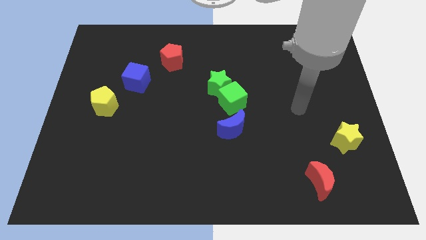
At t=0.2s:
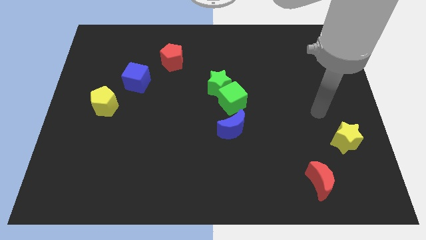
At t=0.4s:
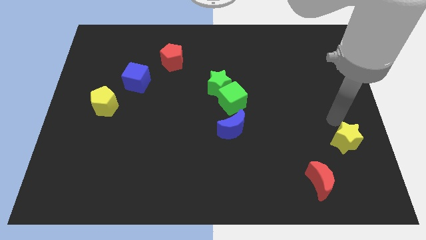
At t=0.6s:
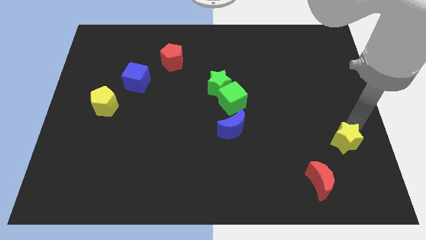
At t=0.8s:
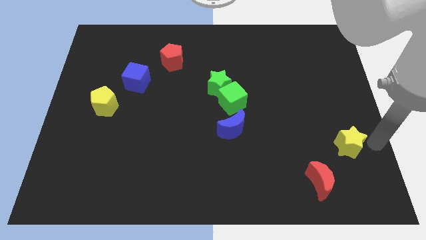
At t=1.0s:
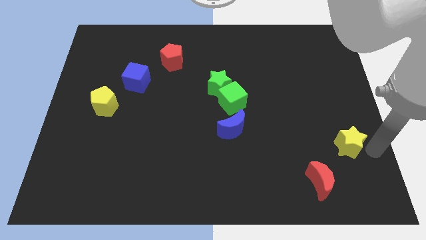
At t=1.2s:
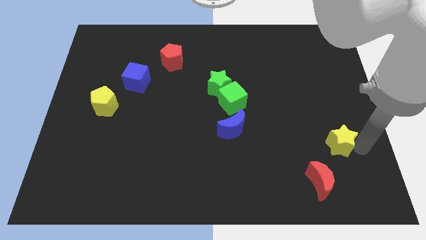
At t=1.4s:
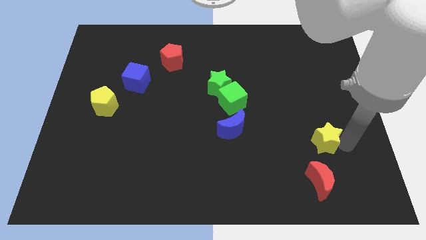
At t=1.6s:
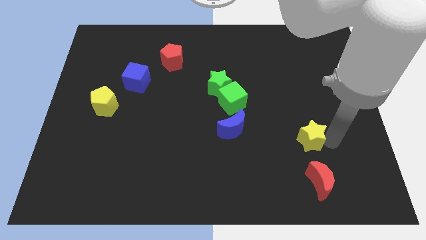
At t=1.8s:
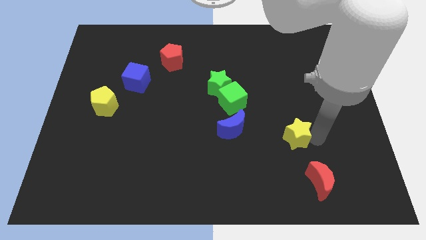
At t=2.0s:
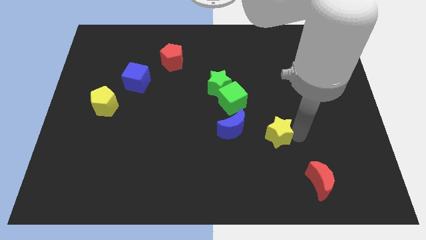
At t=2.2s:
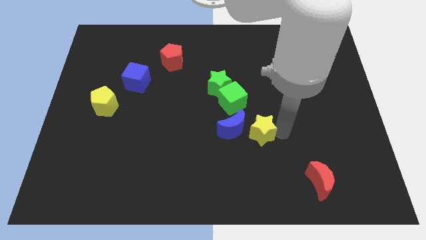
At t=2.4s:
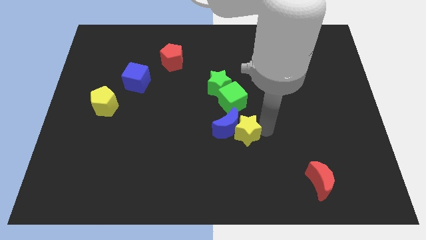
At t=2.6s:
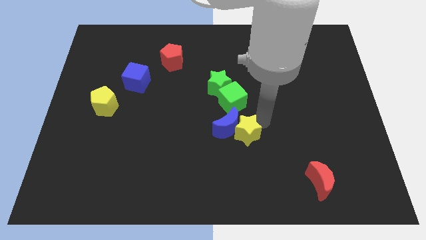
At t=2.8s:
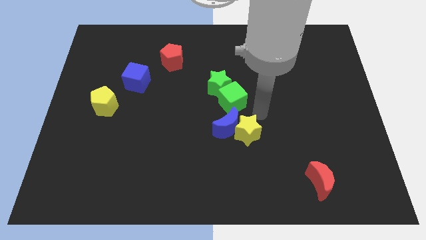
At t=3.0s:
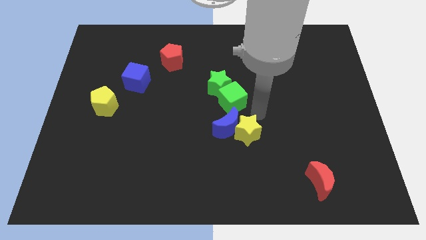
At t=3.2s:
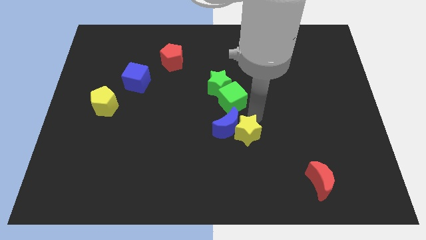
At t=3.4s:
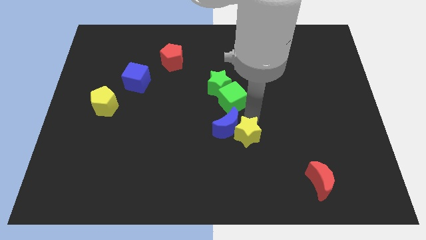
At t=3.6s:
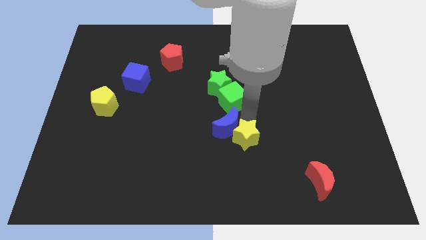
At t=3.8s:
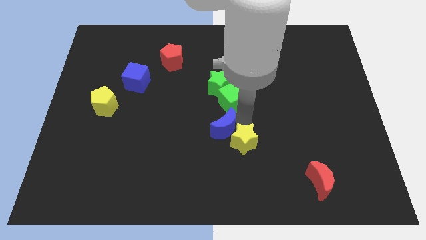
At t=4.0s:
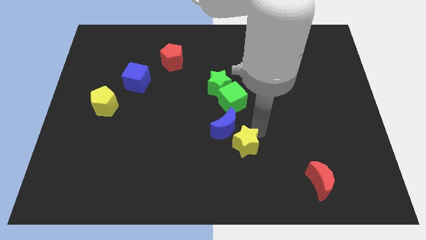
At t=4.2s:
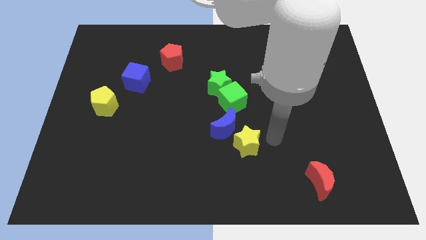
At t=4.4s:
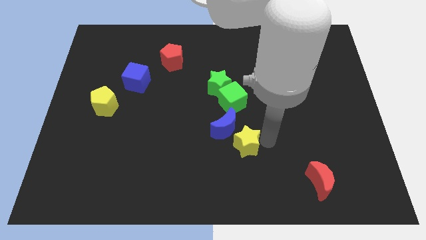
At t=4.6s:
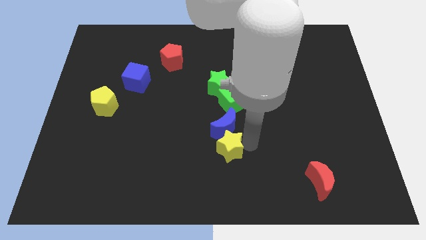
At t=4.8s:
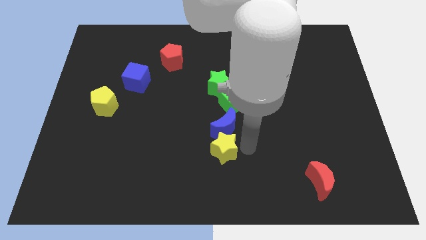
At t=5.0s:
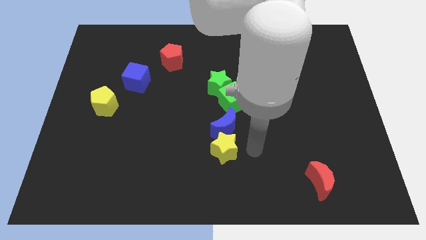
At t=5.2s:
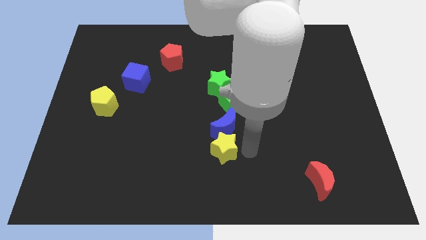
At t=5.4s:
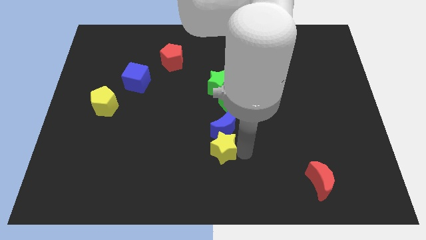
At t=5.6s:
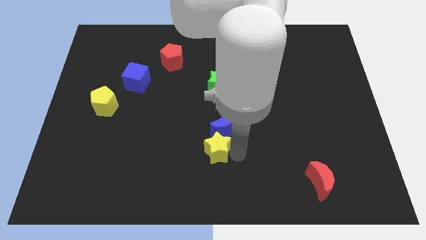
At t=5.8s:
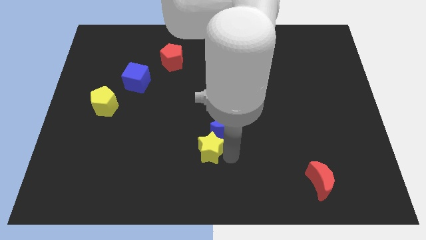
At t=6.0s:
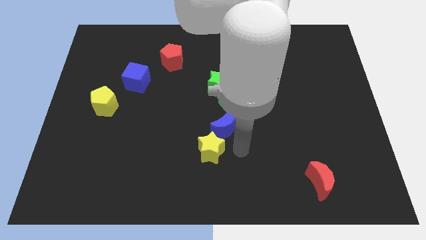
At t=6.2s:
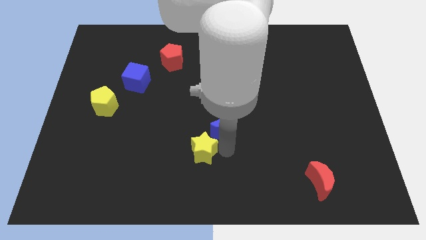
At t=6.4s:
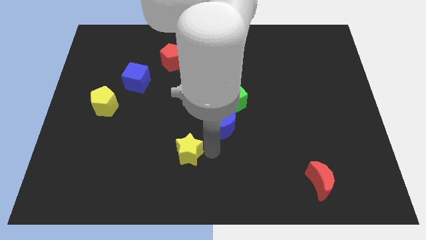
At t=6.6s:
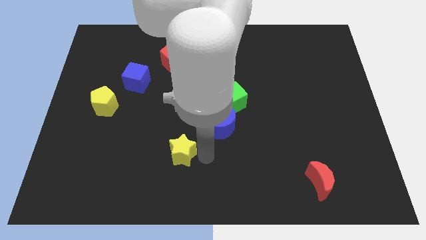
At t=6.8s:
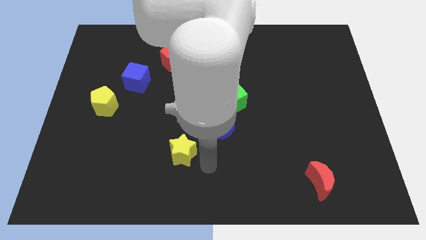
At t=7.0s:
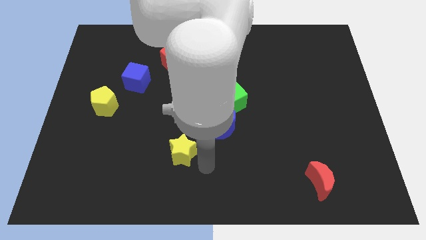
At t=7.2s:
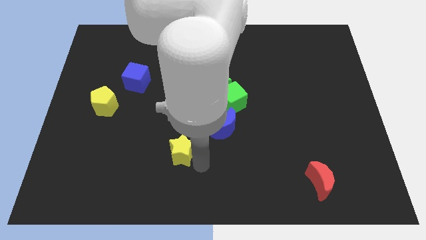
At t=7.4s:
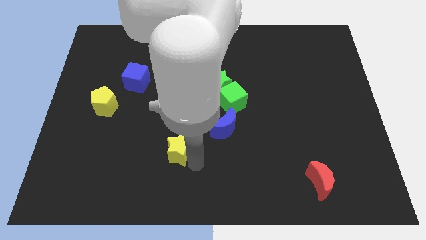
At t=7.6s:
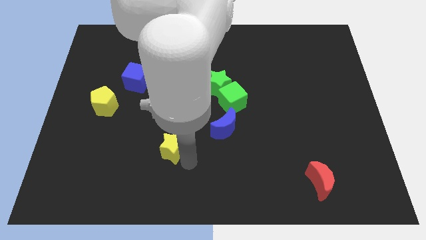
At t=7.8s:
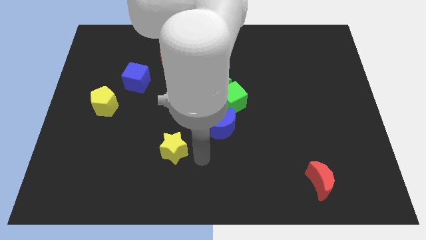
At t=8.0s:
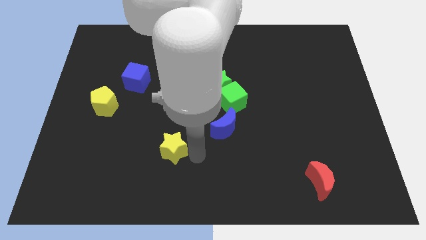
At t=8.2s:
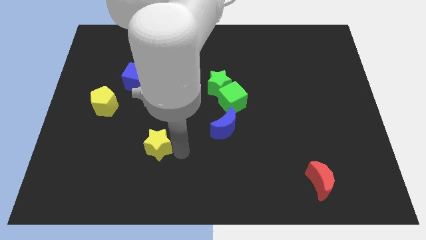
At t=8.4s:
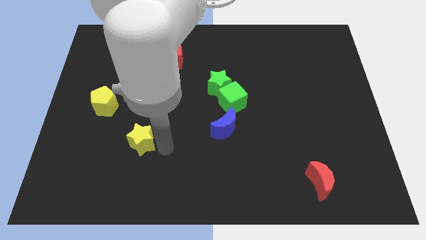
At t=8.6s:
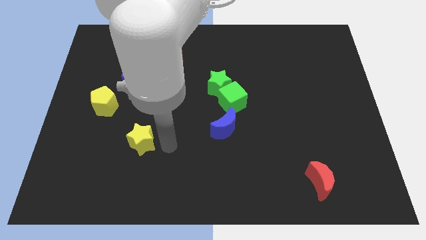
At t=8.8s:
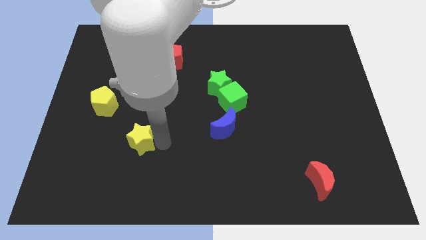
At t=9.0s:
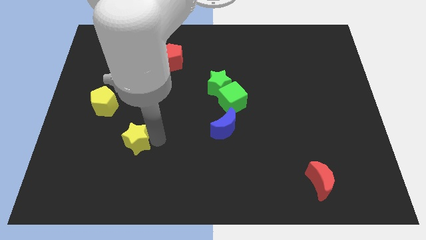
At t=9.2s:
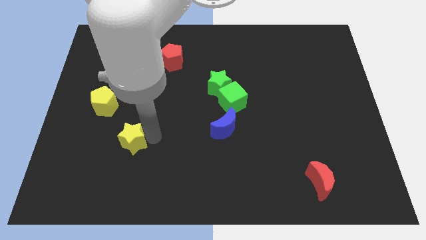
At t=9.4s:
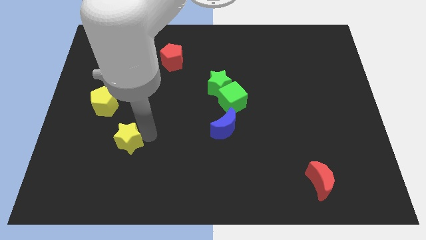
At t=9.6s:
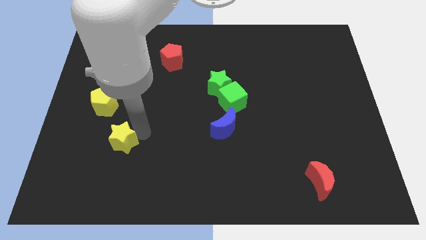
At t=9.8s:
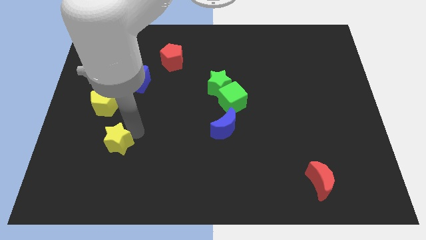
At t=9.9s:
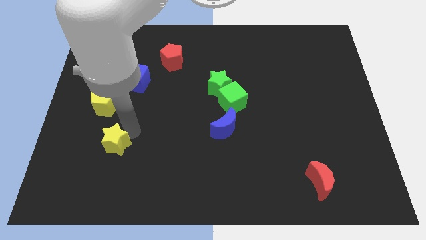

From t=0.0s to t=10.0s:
slide the yellow star to the bottom of the yellow pentagon

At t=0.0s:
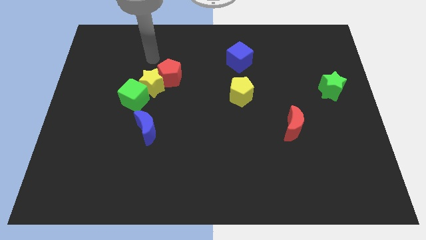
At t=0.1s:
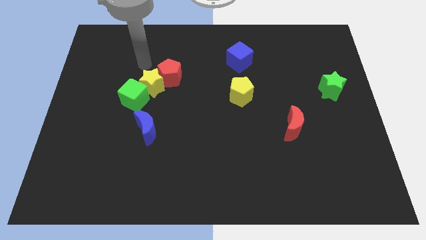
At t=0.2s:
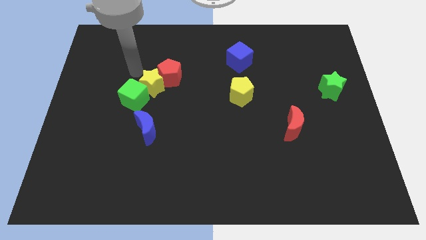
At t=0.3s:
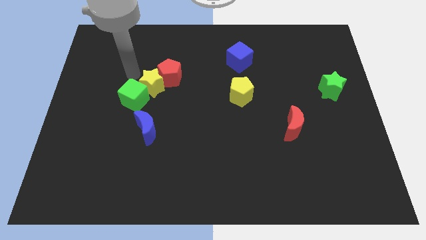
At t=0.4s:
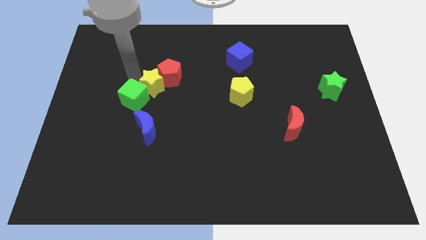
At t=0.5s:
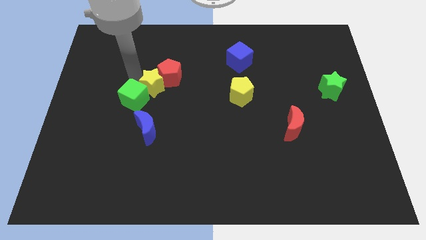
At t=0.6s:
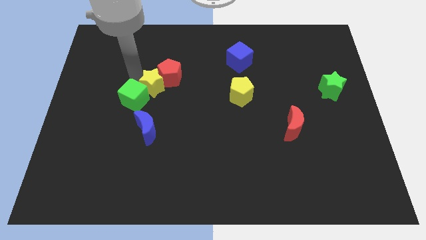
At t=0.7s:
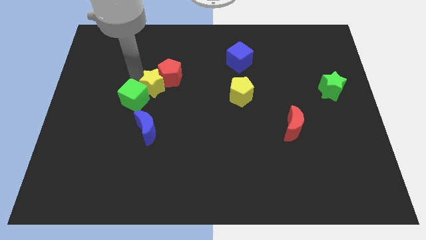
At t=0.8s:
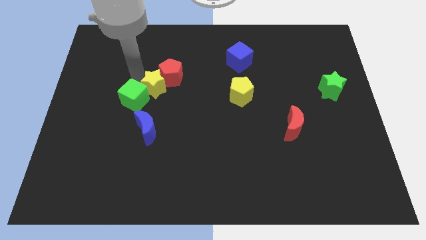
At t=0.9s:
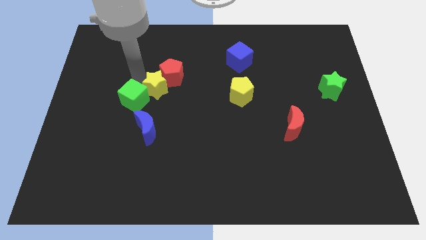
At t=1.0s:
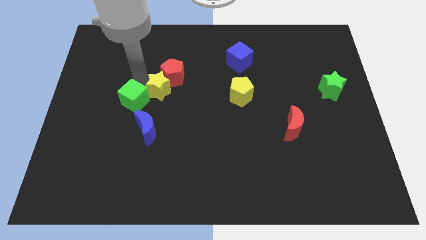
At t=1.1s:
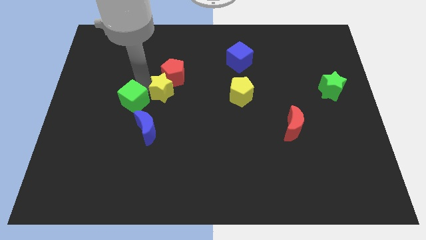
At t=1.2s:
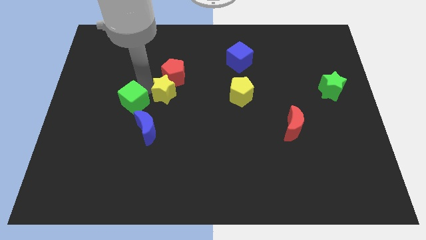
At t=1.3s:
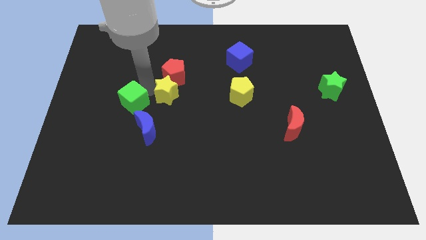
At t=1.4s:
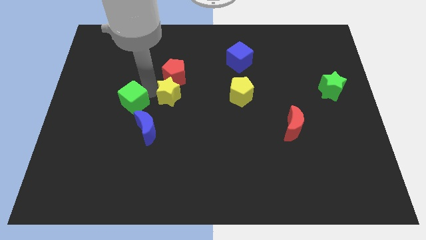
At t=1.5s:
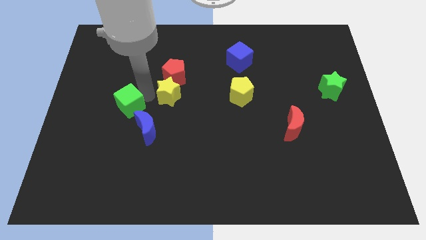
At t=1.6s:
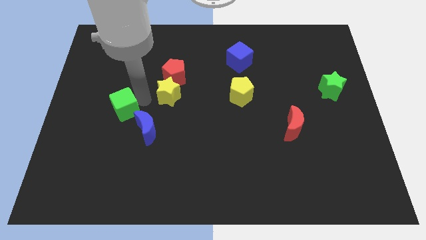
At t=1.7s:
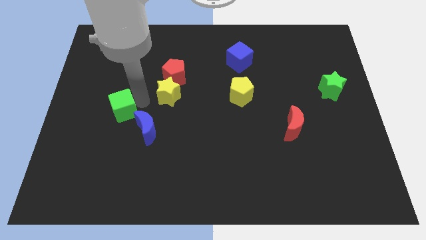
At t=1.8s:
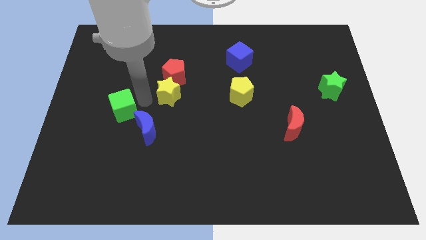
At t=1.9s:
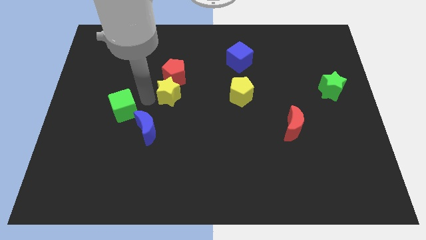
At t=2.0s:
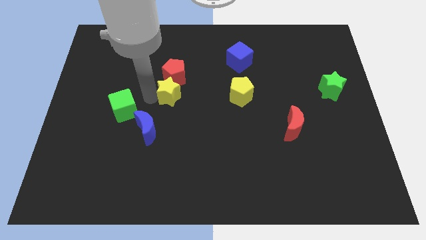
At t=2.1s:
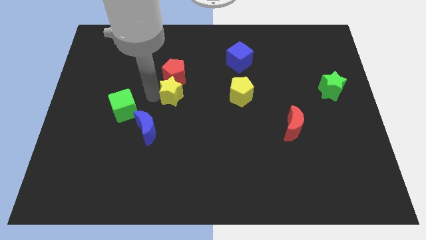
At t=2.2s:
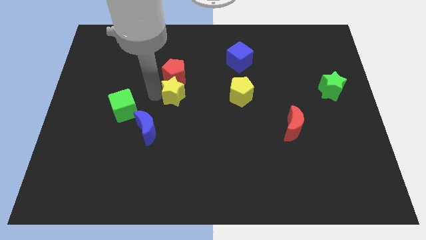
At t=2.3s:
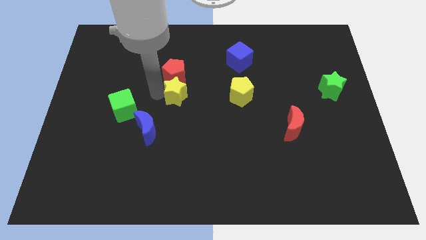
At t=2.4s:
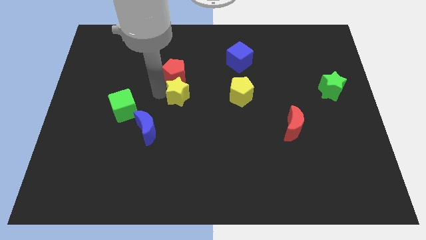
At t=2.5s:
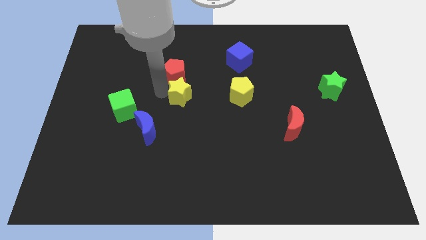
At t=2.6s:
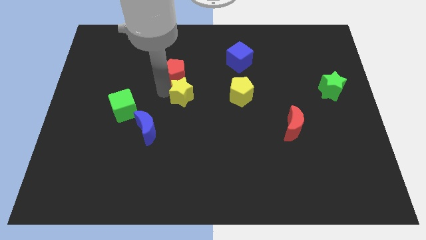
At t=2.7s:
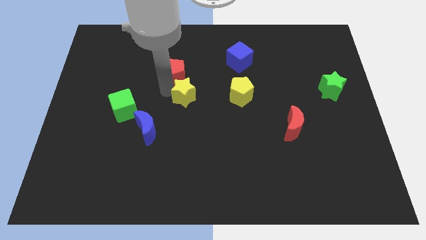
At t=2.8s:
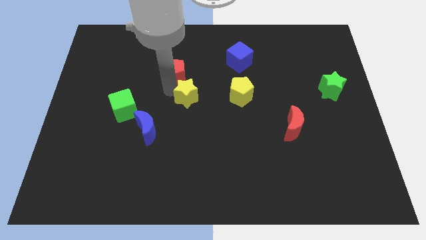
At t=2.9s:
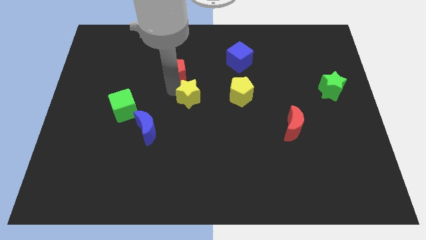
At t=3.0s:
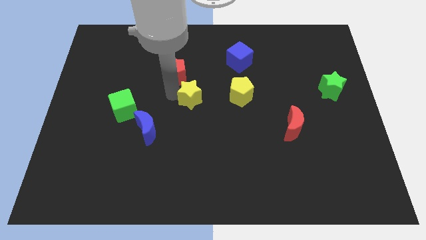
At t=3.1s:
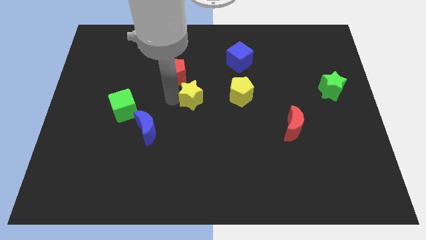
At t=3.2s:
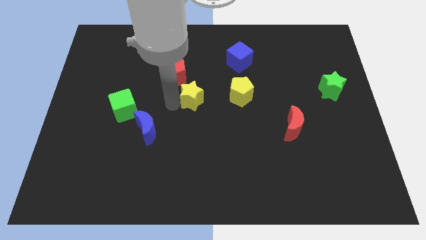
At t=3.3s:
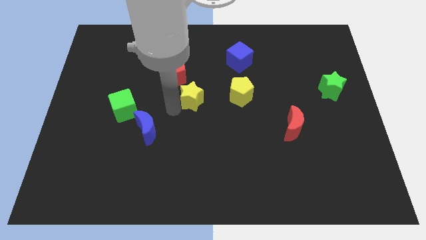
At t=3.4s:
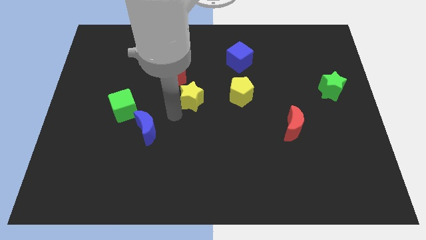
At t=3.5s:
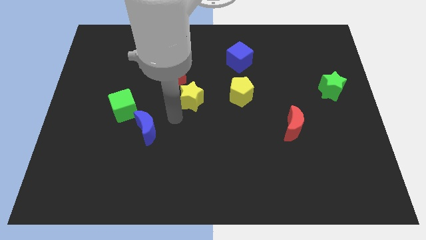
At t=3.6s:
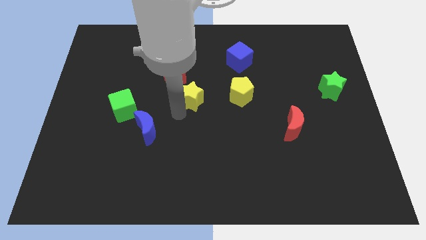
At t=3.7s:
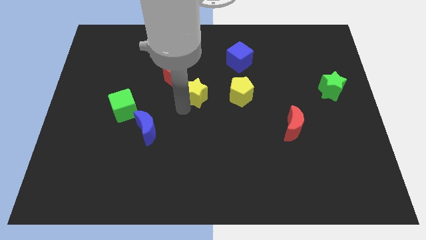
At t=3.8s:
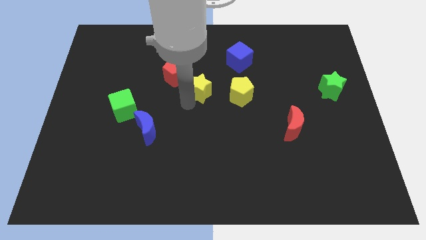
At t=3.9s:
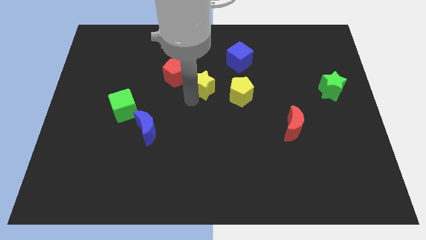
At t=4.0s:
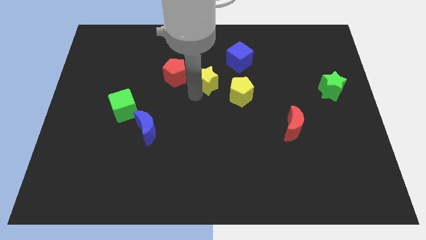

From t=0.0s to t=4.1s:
put the yellow star diagonally down and to the left of the blue cube
